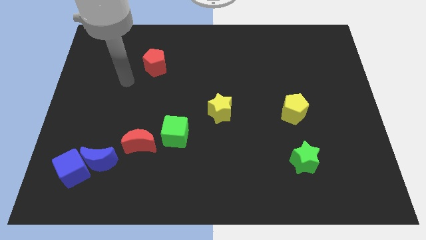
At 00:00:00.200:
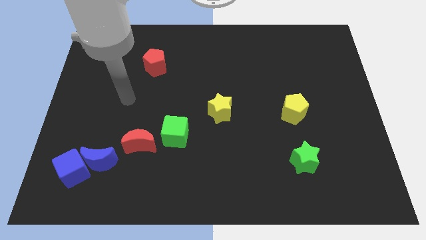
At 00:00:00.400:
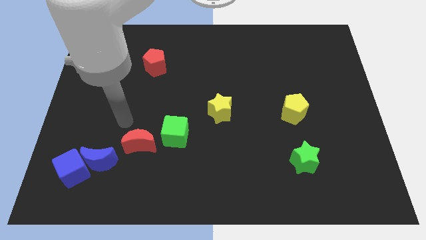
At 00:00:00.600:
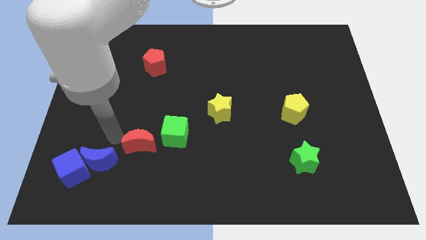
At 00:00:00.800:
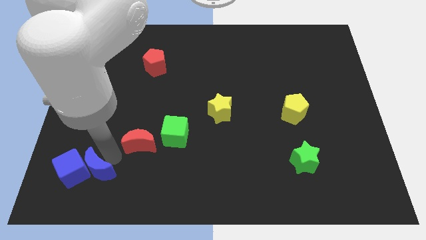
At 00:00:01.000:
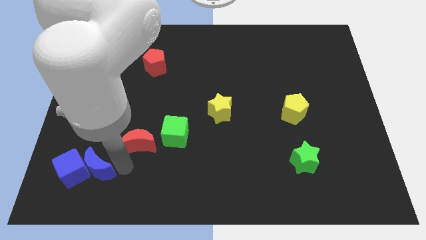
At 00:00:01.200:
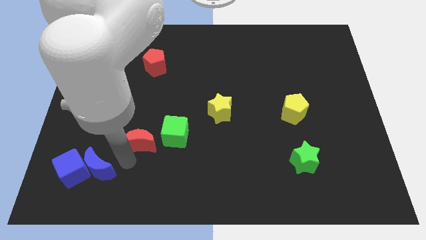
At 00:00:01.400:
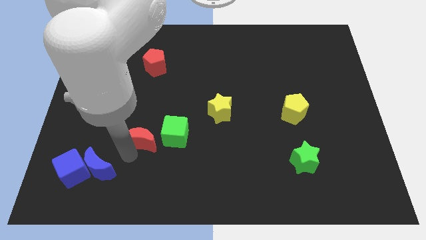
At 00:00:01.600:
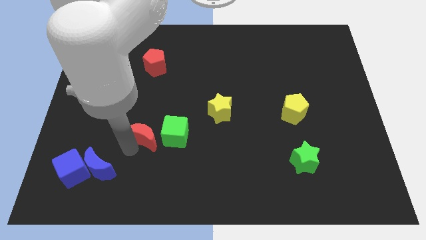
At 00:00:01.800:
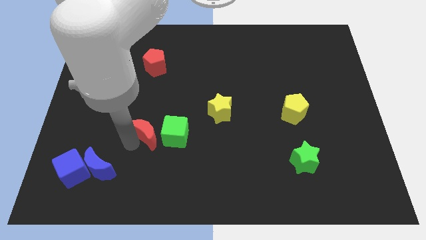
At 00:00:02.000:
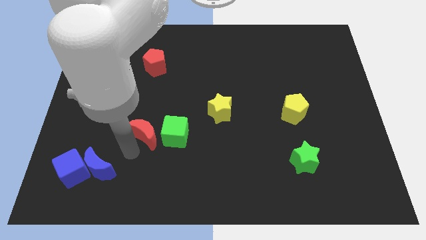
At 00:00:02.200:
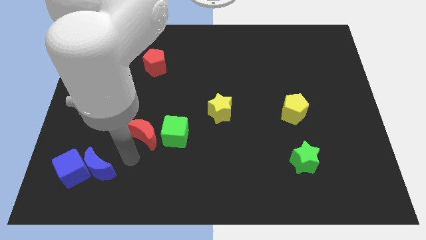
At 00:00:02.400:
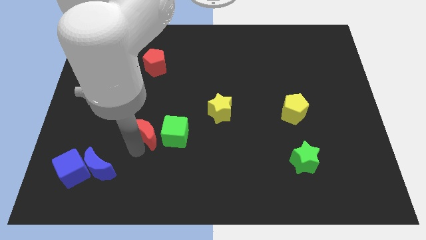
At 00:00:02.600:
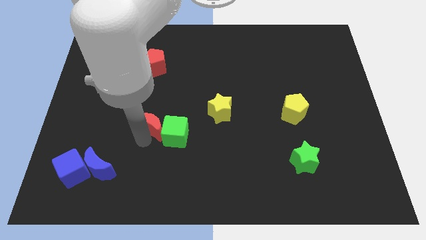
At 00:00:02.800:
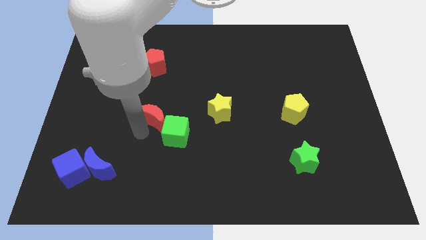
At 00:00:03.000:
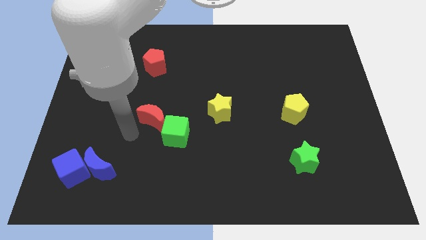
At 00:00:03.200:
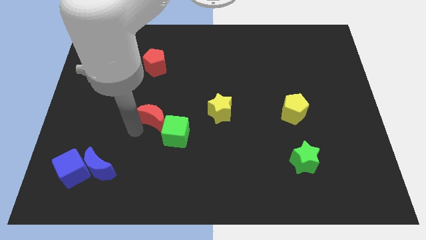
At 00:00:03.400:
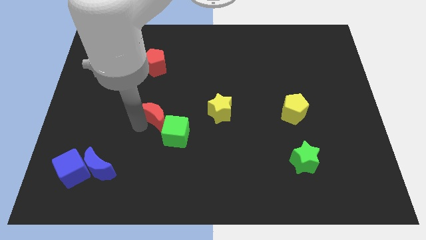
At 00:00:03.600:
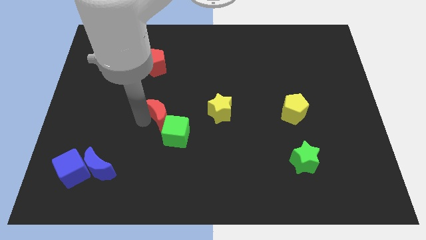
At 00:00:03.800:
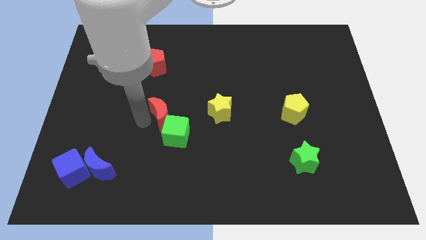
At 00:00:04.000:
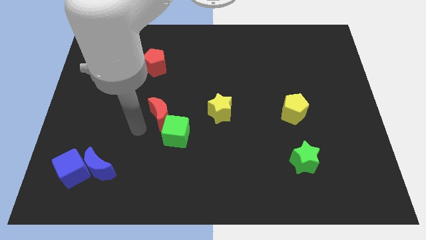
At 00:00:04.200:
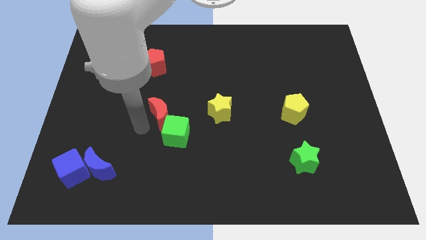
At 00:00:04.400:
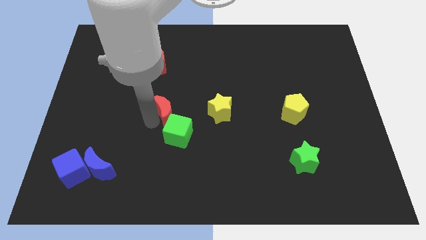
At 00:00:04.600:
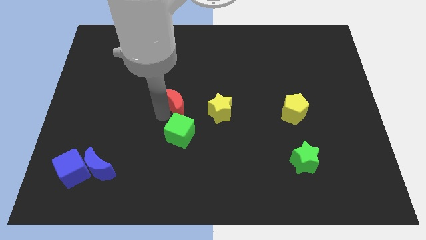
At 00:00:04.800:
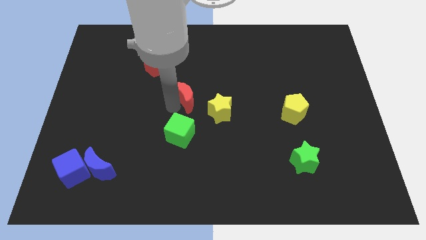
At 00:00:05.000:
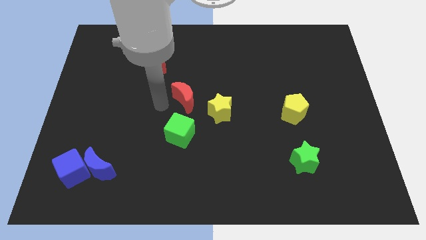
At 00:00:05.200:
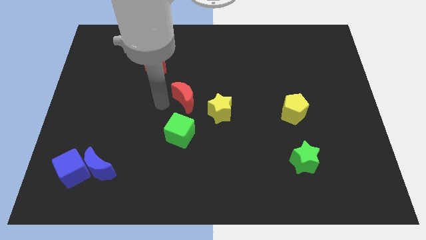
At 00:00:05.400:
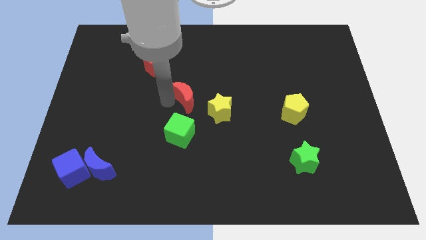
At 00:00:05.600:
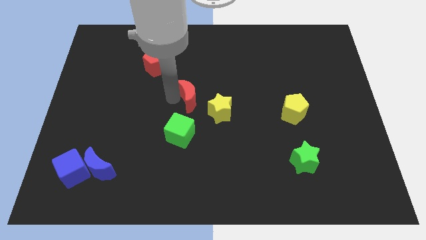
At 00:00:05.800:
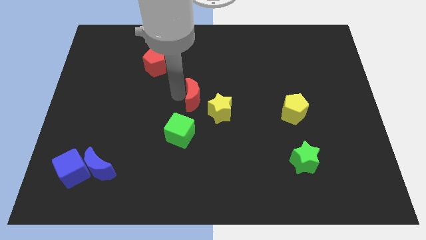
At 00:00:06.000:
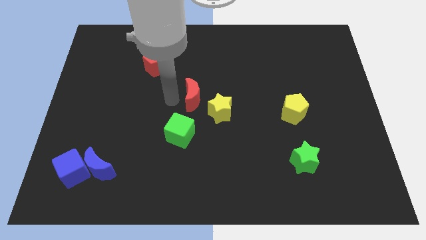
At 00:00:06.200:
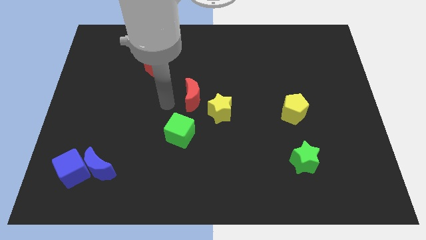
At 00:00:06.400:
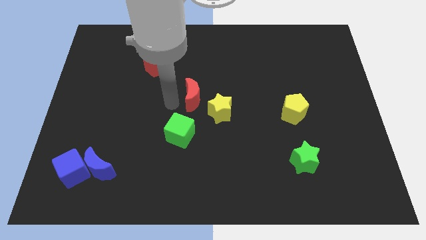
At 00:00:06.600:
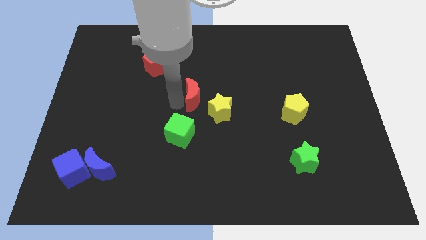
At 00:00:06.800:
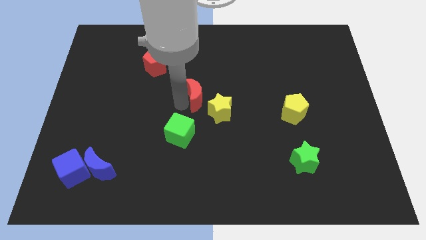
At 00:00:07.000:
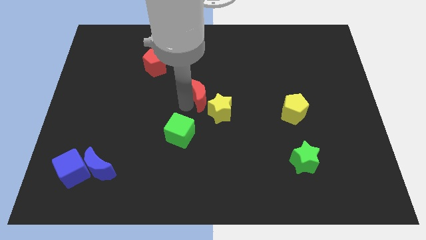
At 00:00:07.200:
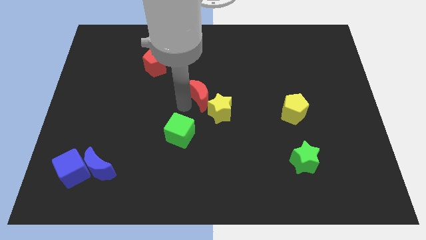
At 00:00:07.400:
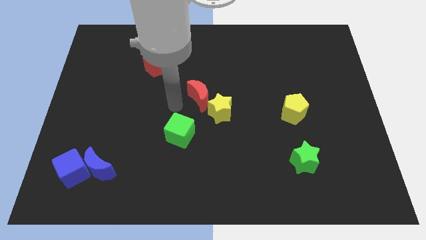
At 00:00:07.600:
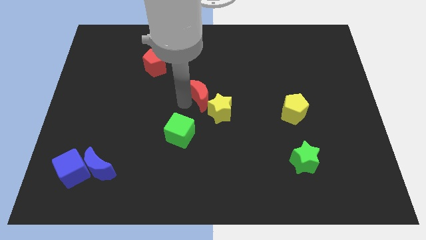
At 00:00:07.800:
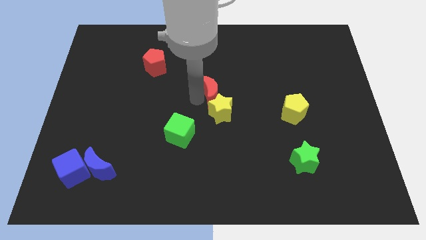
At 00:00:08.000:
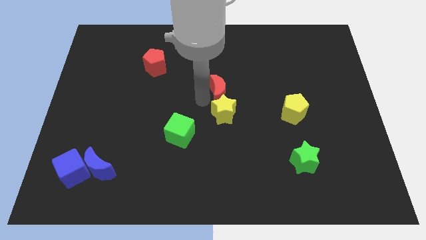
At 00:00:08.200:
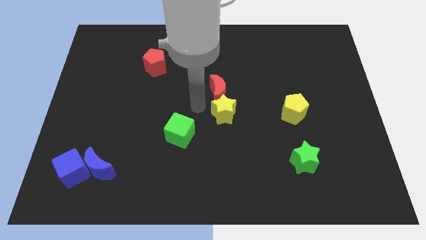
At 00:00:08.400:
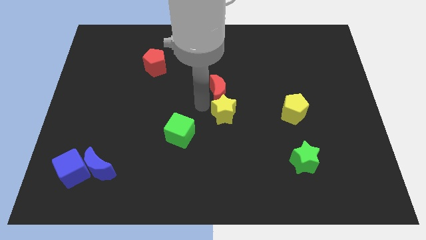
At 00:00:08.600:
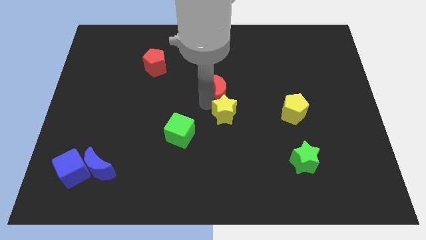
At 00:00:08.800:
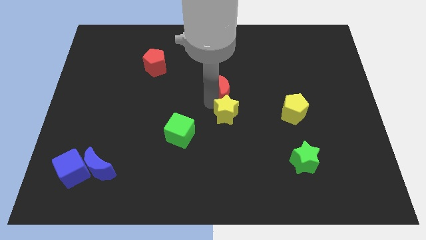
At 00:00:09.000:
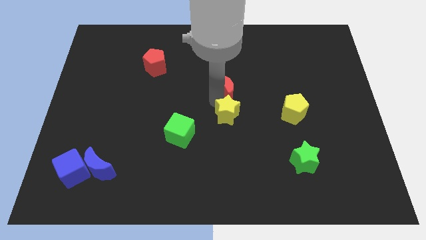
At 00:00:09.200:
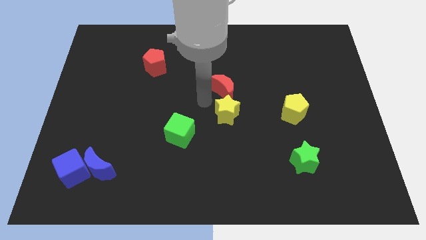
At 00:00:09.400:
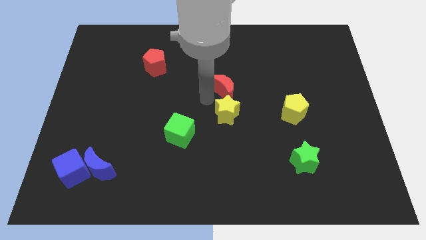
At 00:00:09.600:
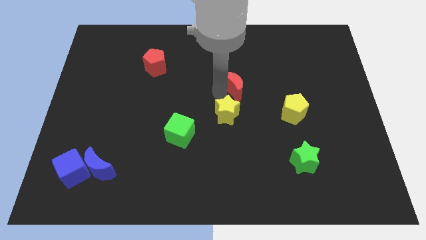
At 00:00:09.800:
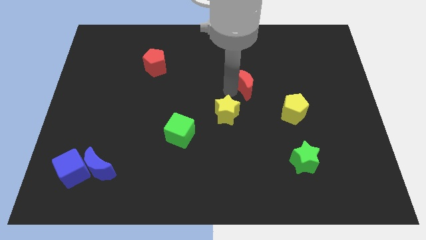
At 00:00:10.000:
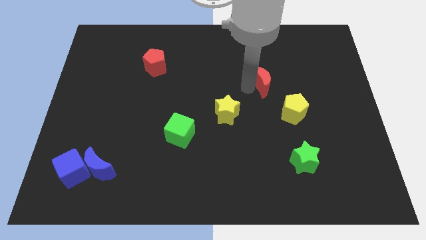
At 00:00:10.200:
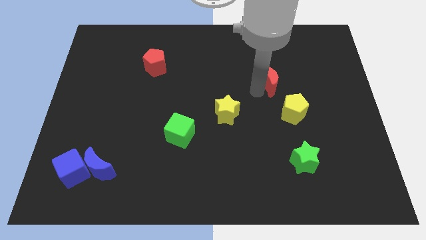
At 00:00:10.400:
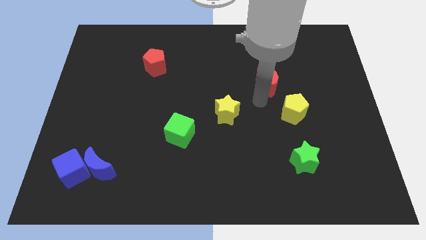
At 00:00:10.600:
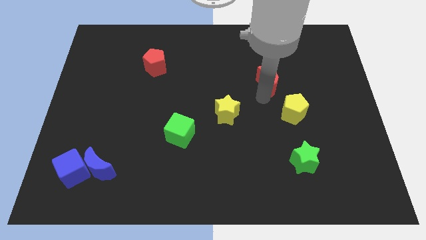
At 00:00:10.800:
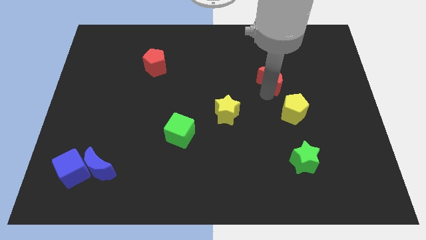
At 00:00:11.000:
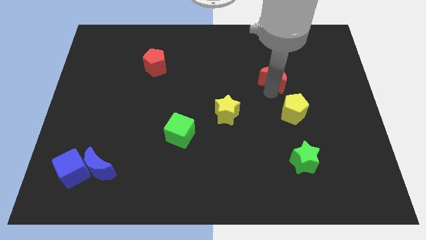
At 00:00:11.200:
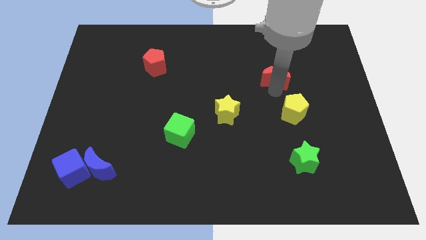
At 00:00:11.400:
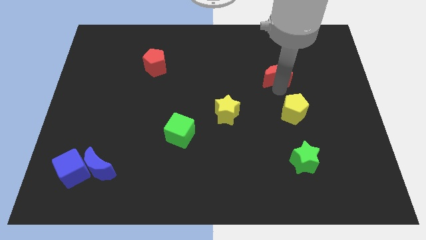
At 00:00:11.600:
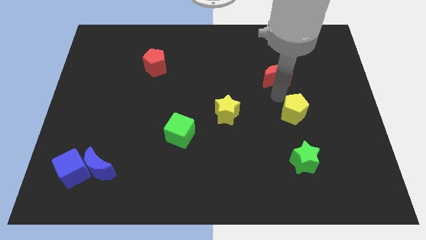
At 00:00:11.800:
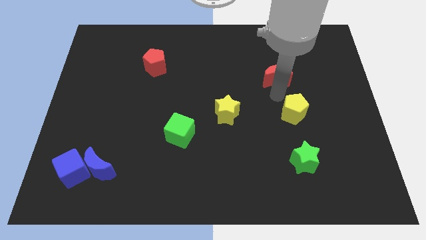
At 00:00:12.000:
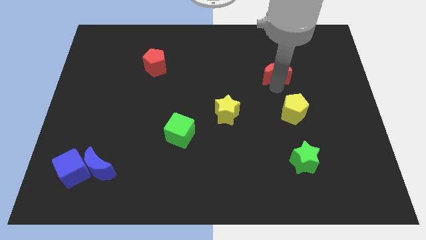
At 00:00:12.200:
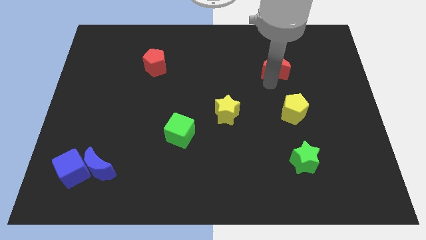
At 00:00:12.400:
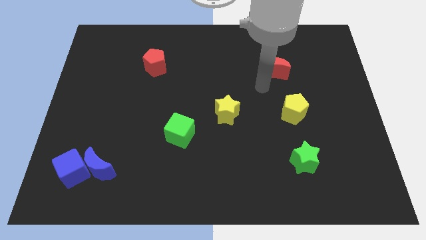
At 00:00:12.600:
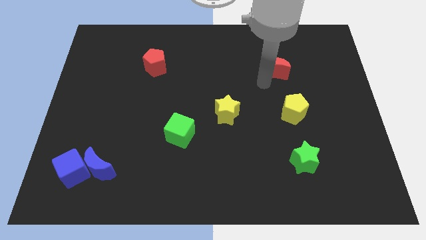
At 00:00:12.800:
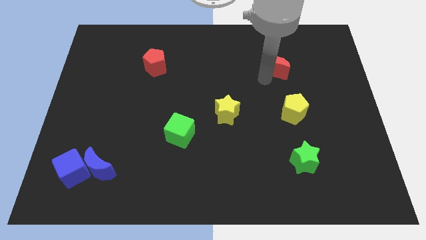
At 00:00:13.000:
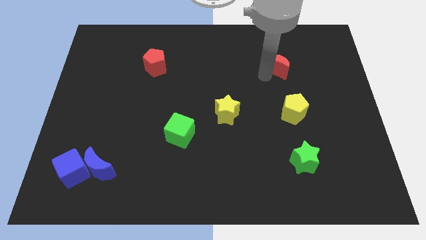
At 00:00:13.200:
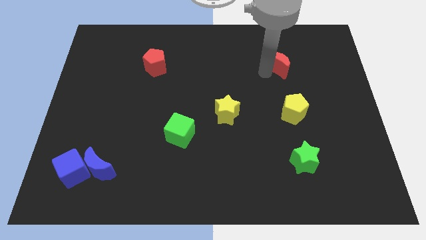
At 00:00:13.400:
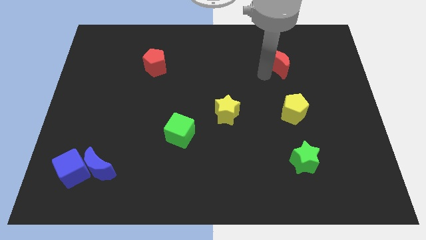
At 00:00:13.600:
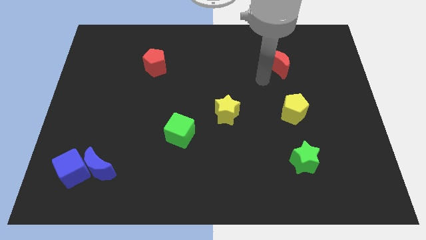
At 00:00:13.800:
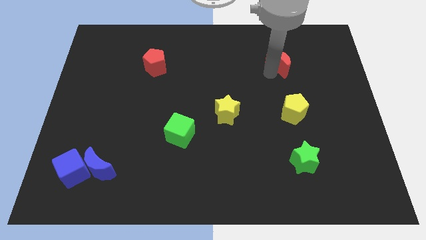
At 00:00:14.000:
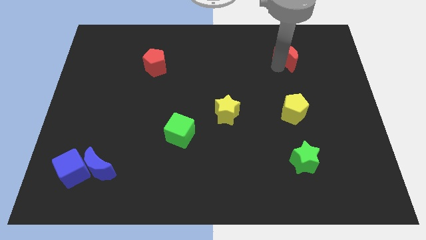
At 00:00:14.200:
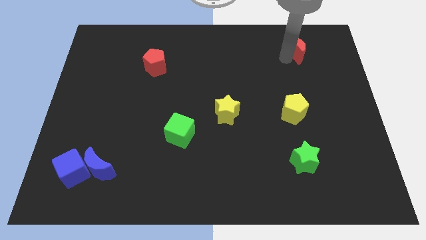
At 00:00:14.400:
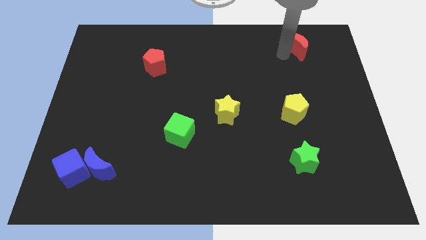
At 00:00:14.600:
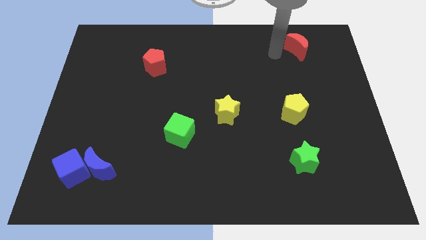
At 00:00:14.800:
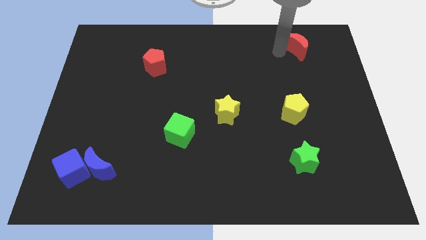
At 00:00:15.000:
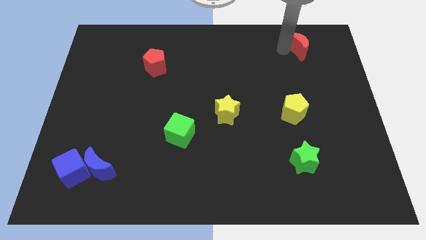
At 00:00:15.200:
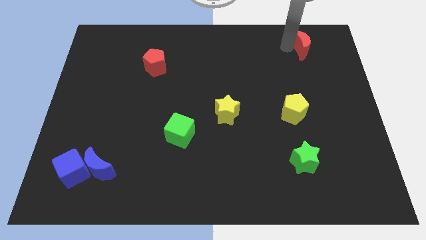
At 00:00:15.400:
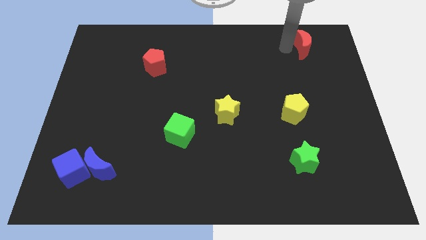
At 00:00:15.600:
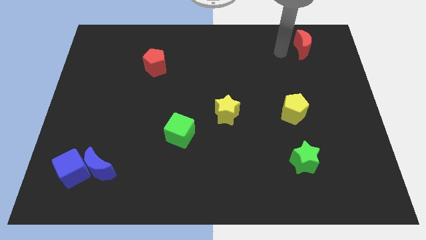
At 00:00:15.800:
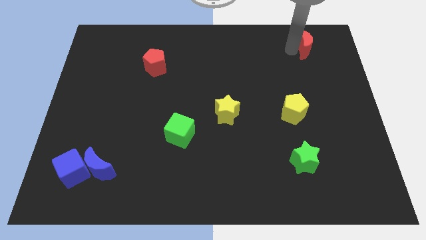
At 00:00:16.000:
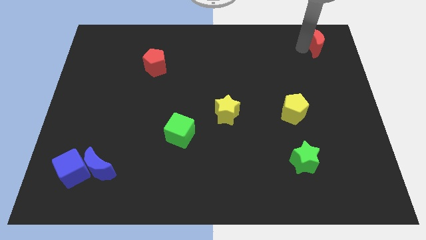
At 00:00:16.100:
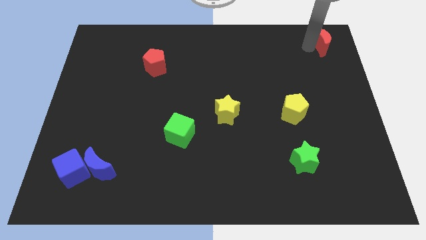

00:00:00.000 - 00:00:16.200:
move the red moon to the top right corner
